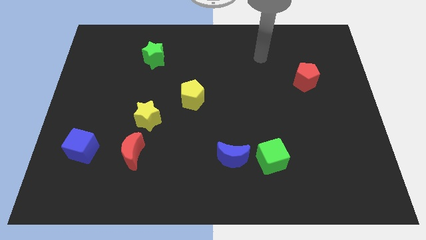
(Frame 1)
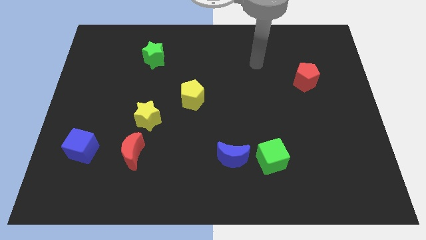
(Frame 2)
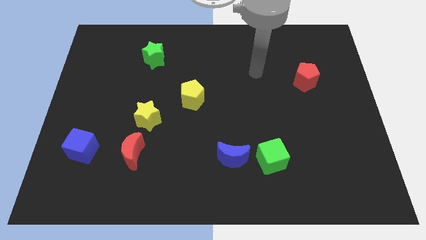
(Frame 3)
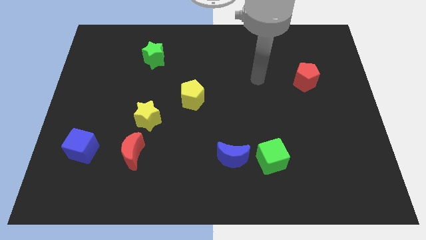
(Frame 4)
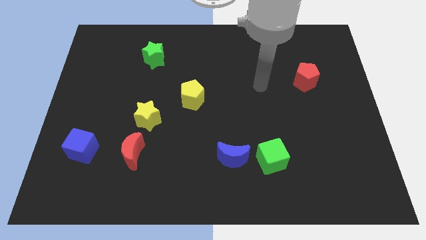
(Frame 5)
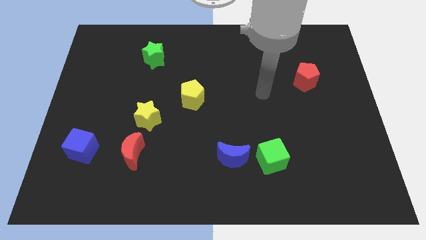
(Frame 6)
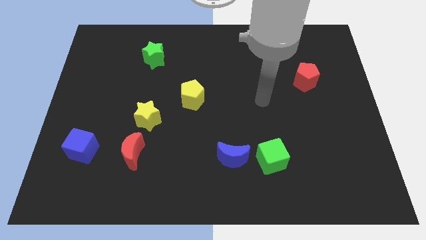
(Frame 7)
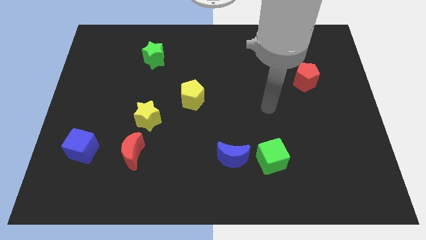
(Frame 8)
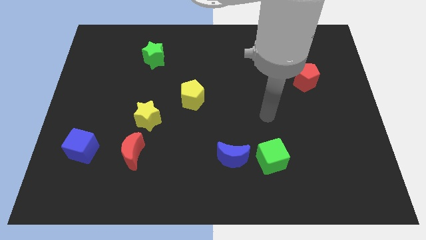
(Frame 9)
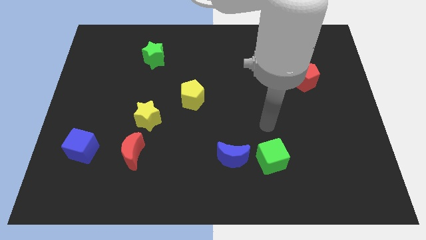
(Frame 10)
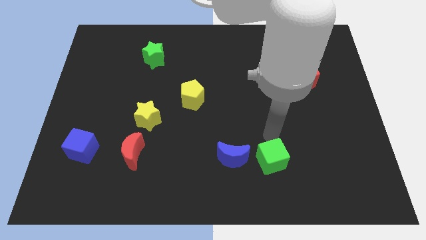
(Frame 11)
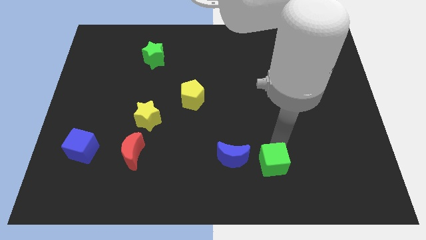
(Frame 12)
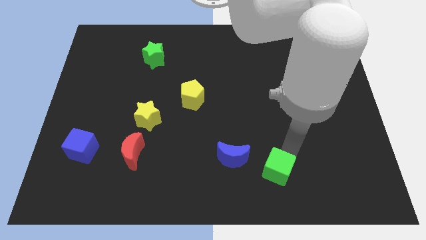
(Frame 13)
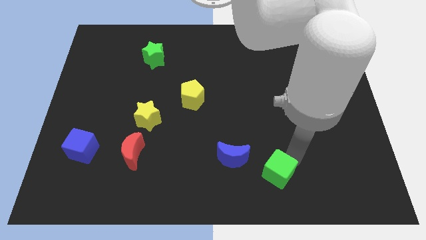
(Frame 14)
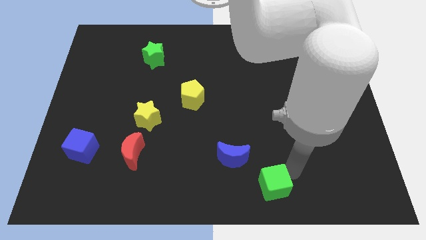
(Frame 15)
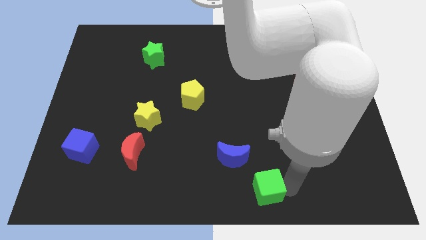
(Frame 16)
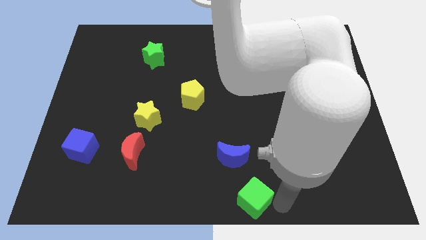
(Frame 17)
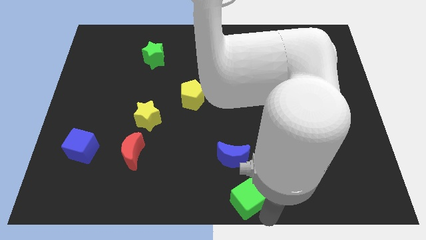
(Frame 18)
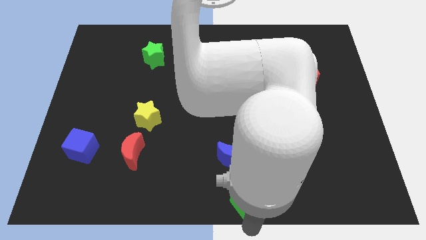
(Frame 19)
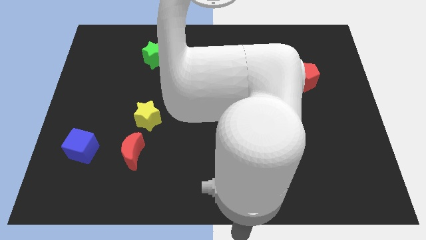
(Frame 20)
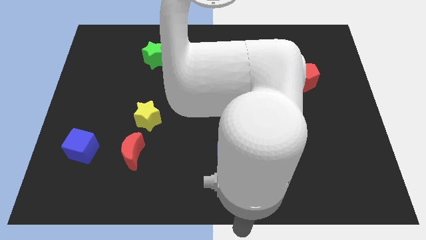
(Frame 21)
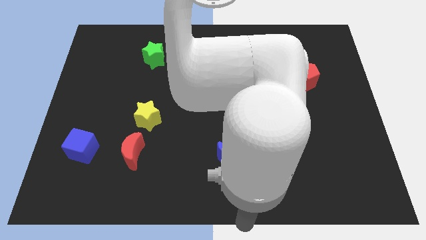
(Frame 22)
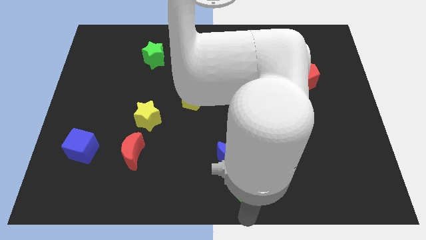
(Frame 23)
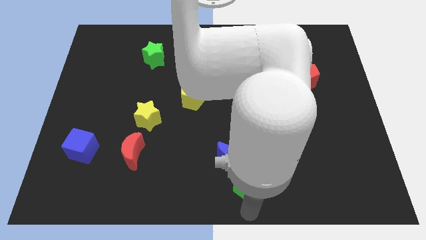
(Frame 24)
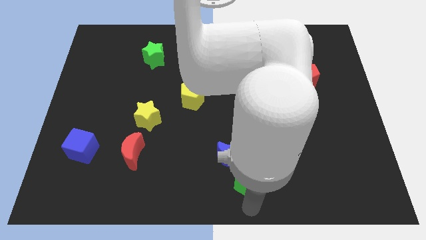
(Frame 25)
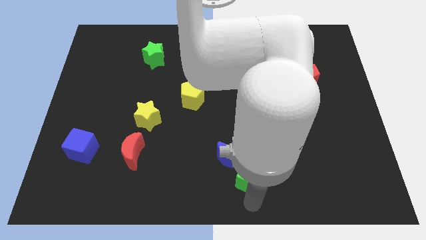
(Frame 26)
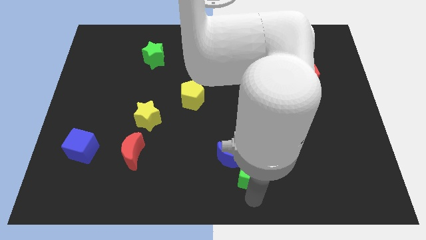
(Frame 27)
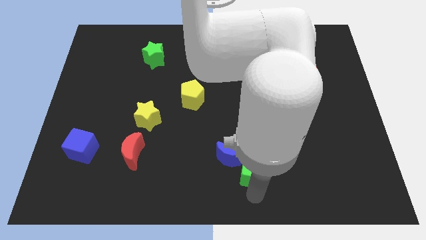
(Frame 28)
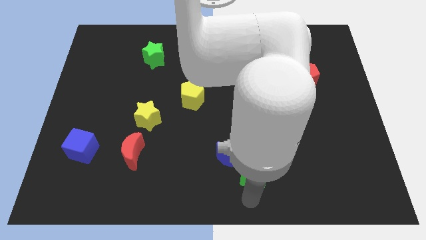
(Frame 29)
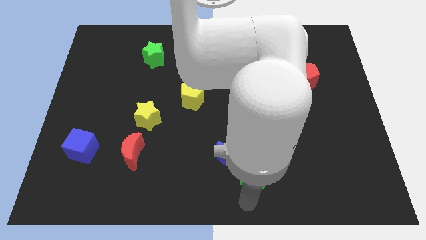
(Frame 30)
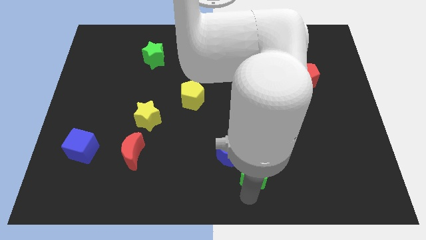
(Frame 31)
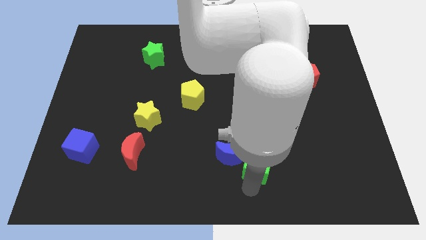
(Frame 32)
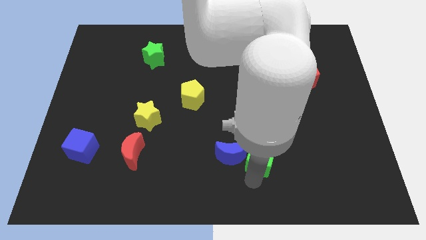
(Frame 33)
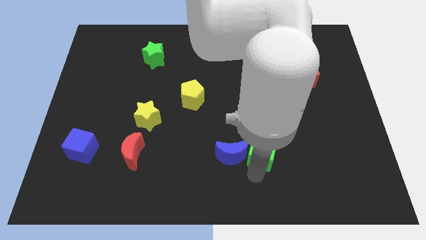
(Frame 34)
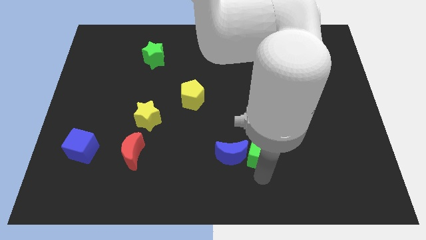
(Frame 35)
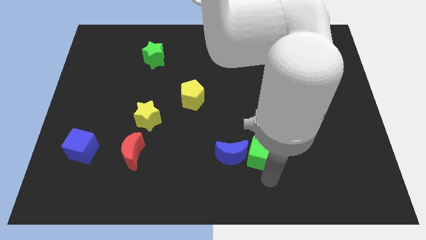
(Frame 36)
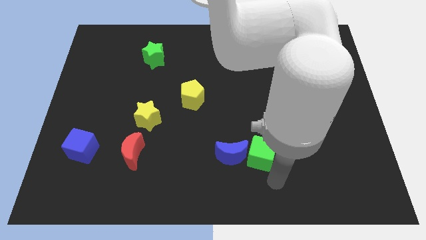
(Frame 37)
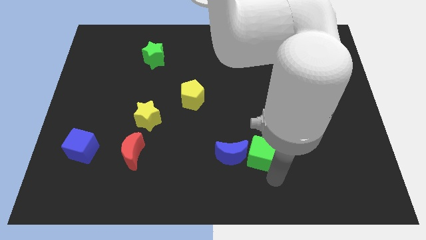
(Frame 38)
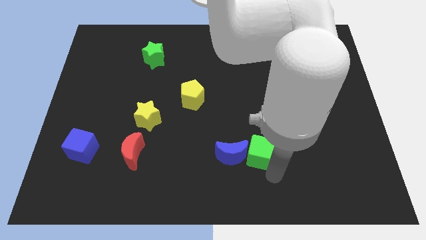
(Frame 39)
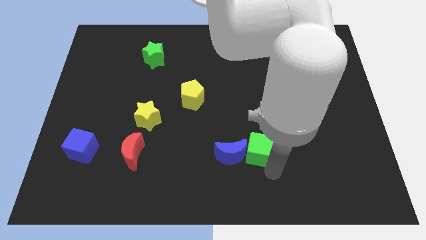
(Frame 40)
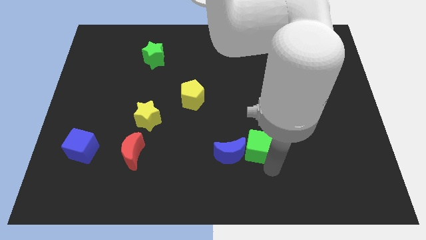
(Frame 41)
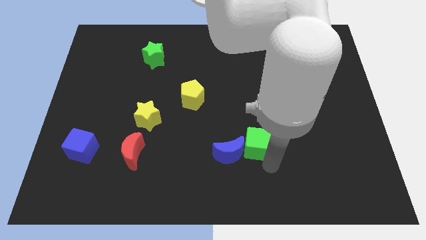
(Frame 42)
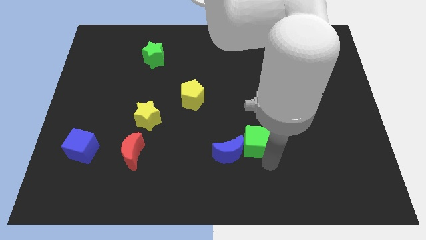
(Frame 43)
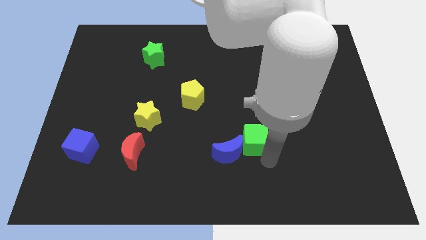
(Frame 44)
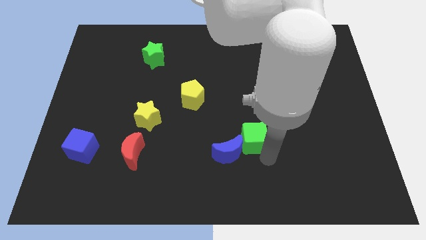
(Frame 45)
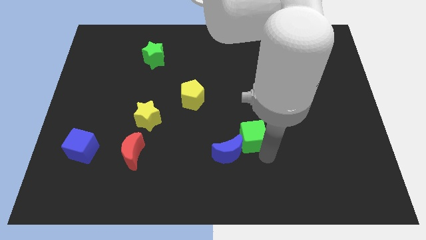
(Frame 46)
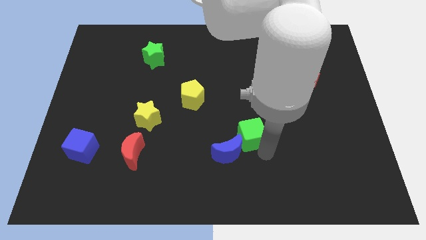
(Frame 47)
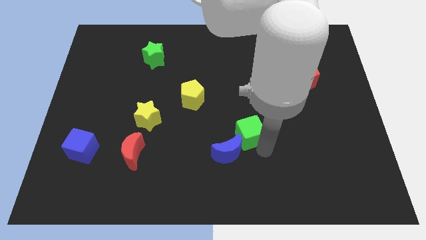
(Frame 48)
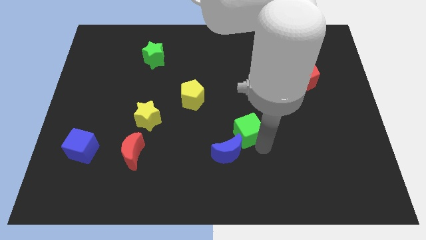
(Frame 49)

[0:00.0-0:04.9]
put the green cube to the middle

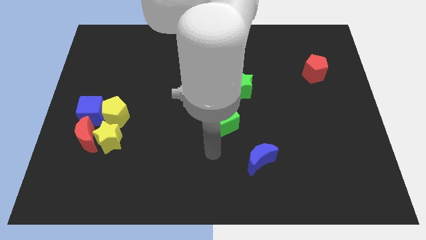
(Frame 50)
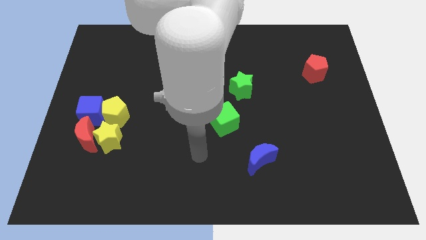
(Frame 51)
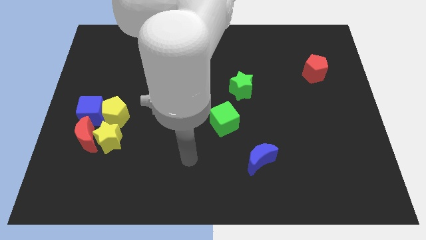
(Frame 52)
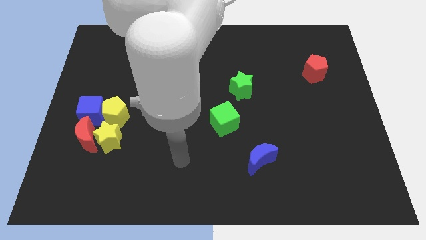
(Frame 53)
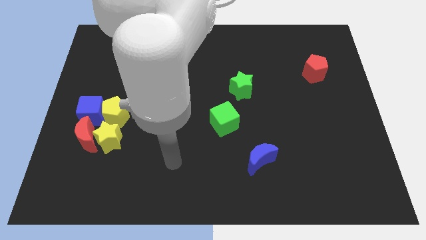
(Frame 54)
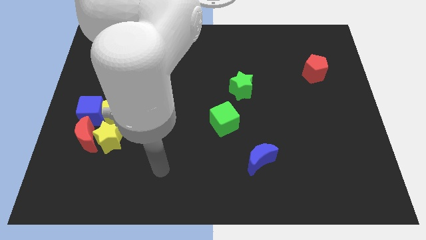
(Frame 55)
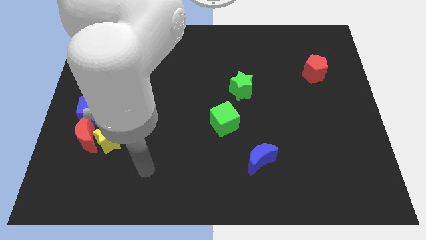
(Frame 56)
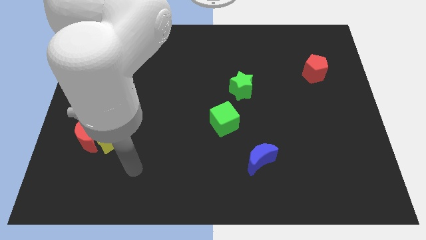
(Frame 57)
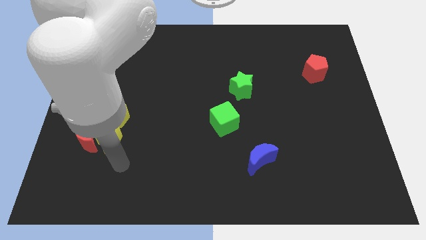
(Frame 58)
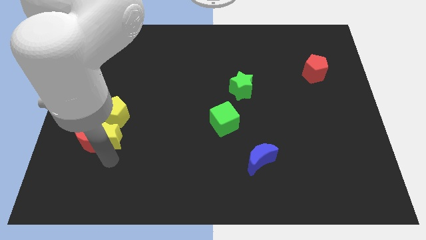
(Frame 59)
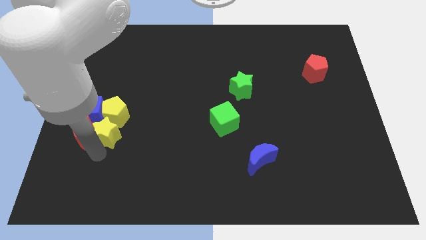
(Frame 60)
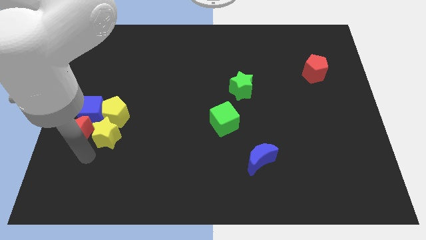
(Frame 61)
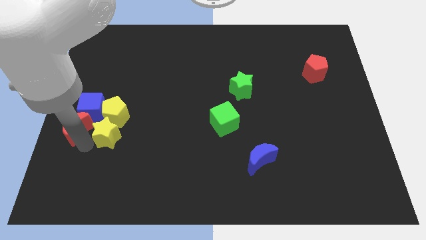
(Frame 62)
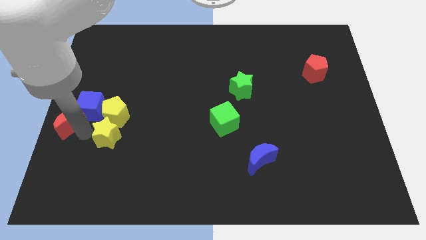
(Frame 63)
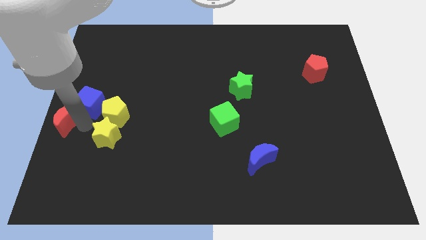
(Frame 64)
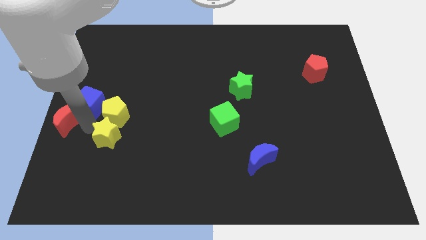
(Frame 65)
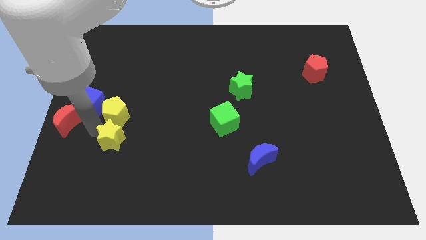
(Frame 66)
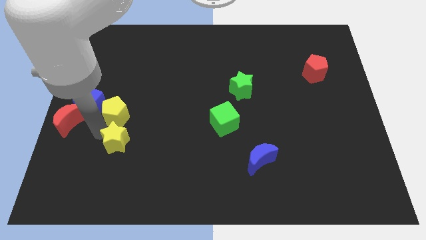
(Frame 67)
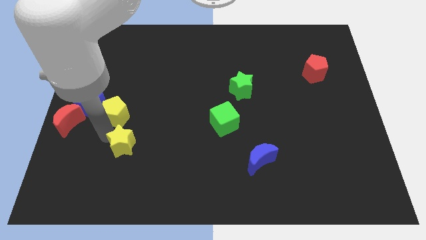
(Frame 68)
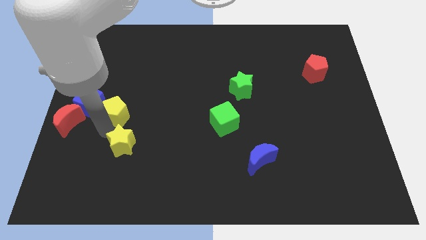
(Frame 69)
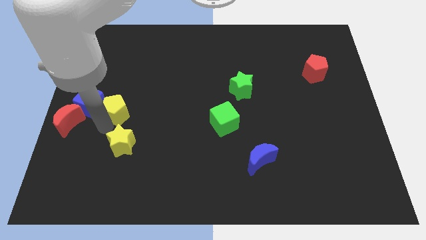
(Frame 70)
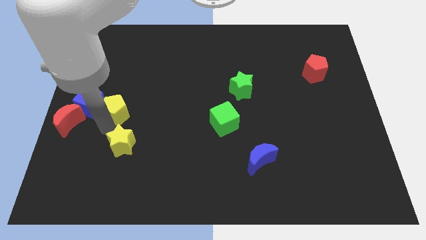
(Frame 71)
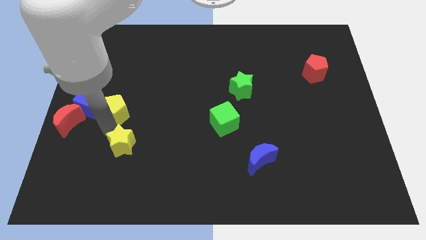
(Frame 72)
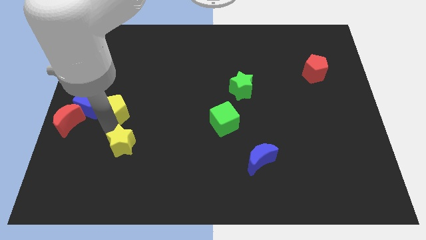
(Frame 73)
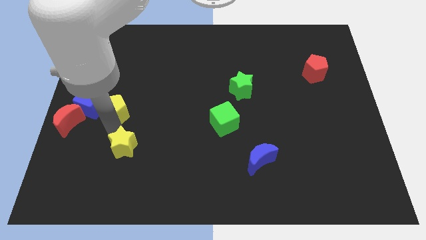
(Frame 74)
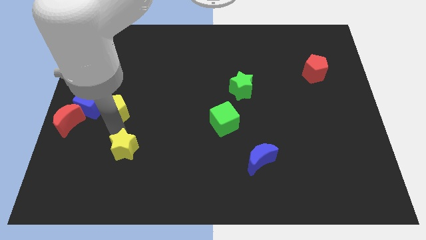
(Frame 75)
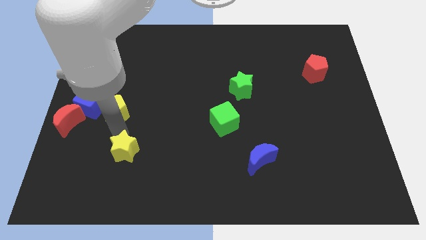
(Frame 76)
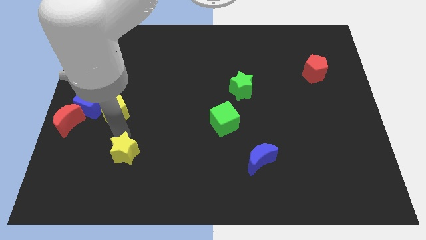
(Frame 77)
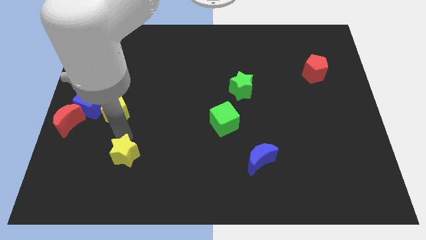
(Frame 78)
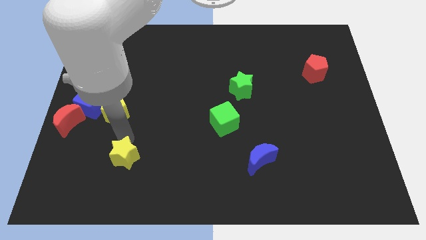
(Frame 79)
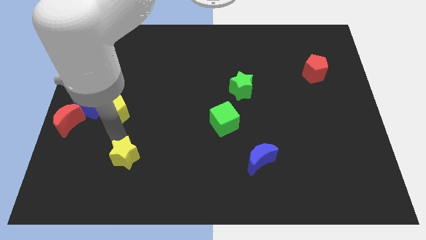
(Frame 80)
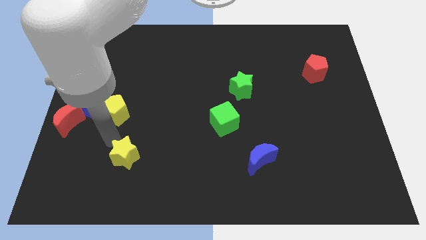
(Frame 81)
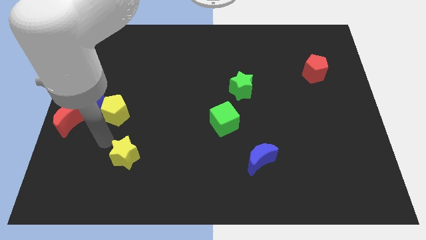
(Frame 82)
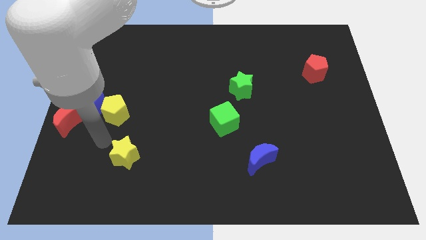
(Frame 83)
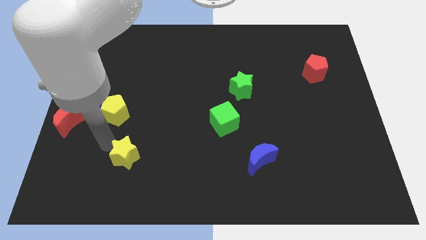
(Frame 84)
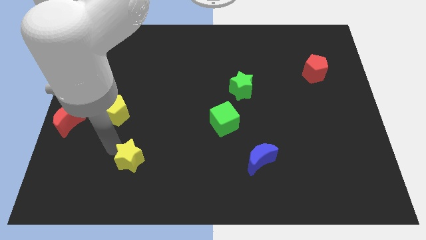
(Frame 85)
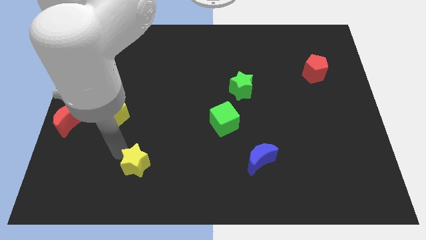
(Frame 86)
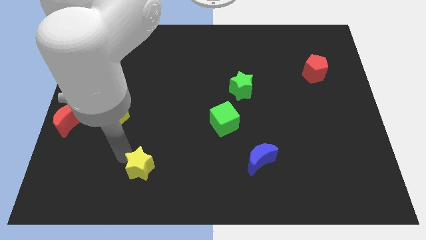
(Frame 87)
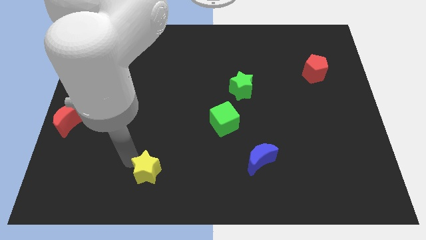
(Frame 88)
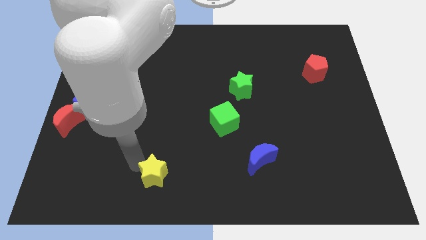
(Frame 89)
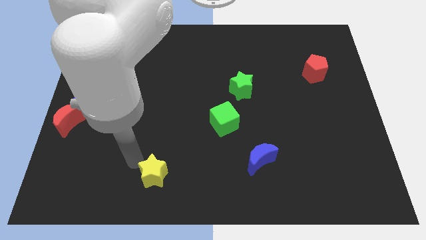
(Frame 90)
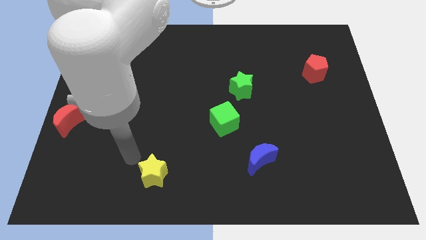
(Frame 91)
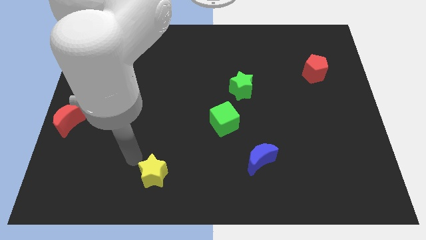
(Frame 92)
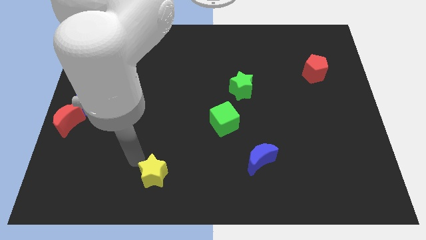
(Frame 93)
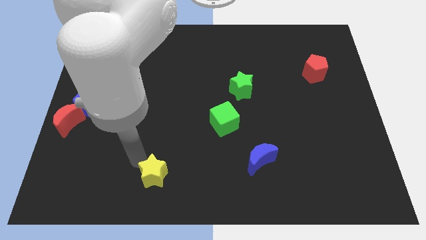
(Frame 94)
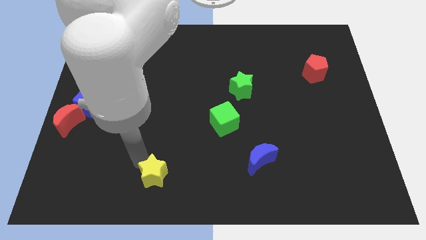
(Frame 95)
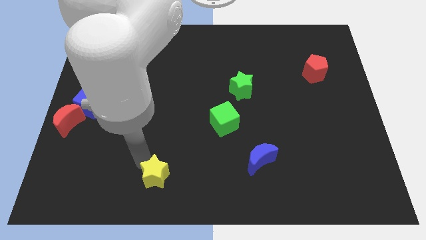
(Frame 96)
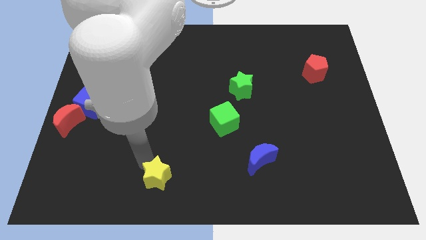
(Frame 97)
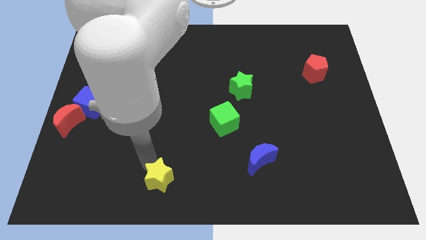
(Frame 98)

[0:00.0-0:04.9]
slide the yellow star to the bottom side
